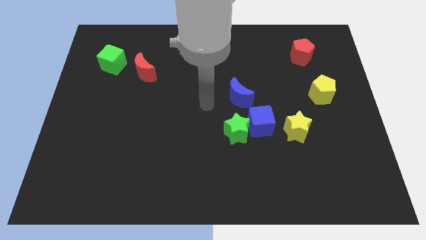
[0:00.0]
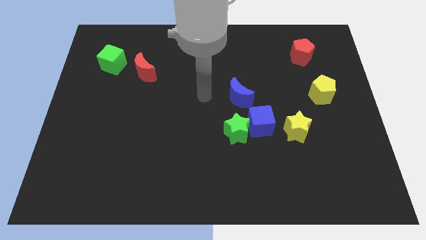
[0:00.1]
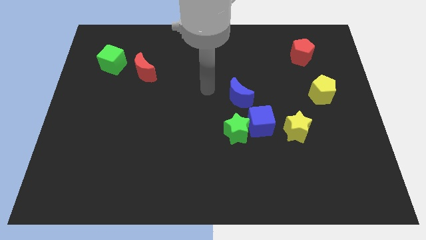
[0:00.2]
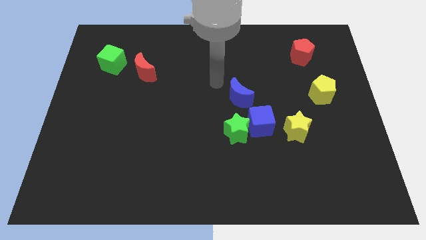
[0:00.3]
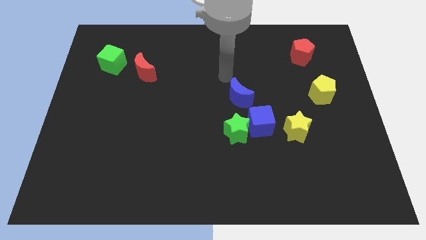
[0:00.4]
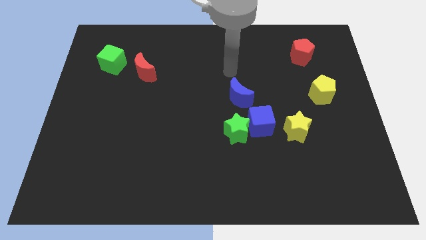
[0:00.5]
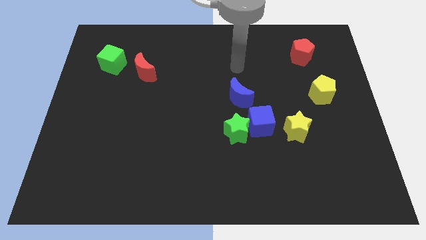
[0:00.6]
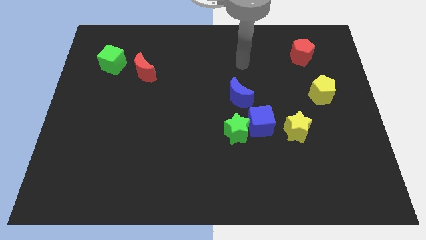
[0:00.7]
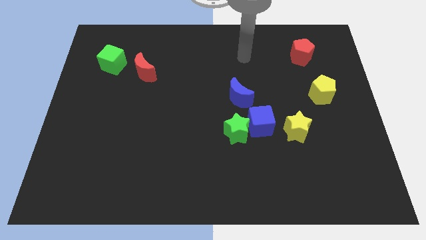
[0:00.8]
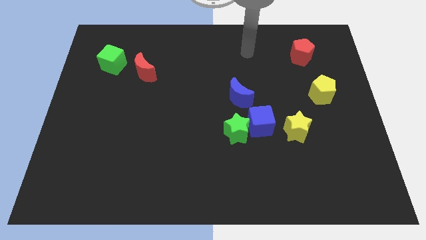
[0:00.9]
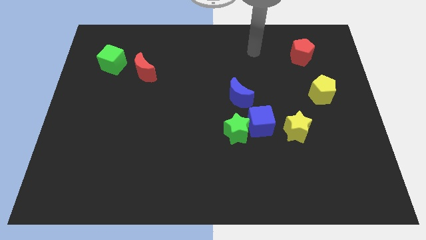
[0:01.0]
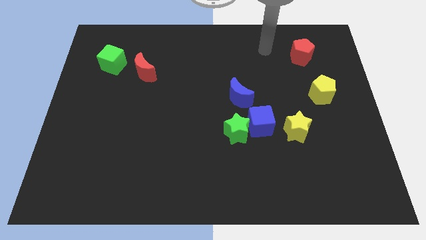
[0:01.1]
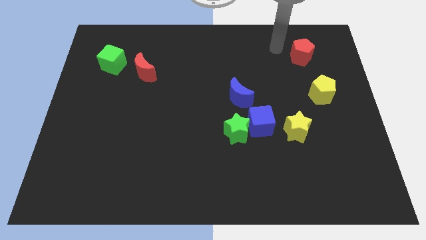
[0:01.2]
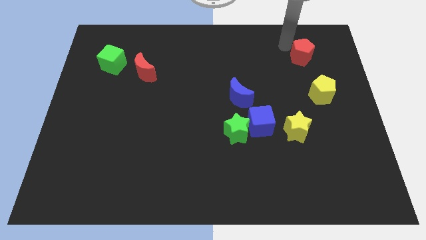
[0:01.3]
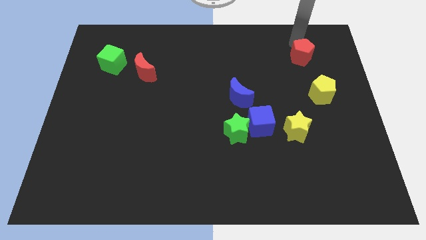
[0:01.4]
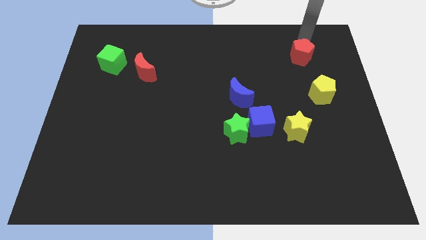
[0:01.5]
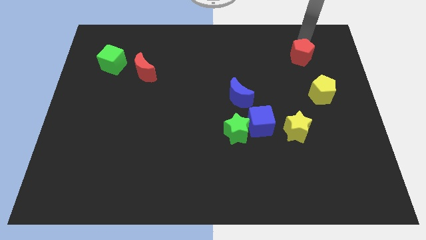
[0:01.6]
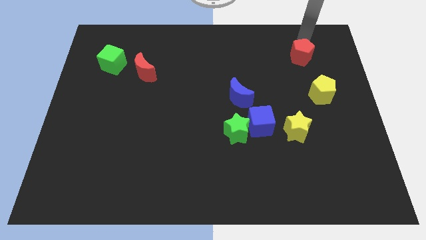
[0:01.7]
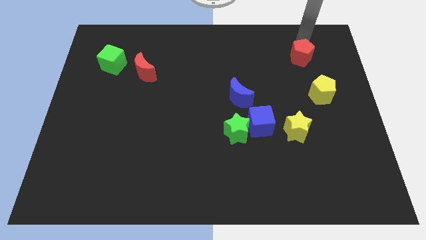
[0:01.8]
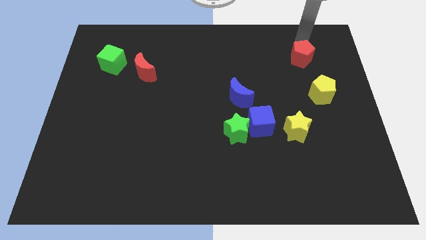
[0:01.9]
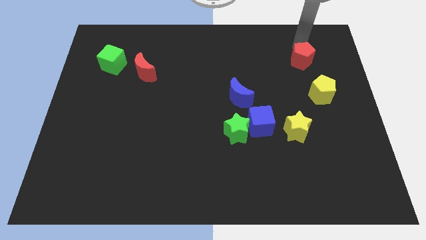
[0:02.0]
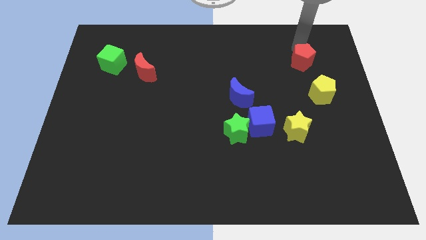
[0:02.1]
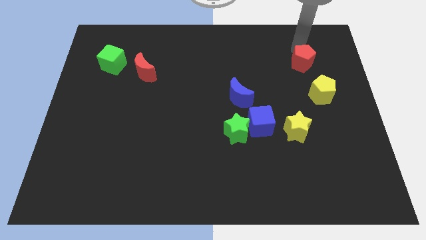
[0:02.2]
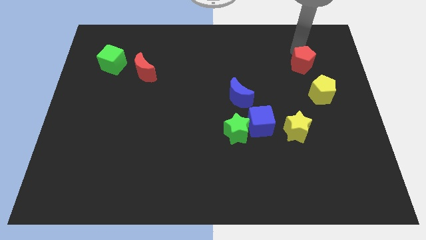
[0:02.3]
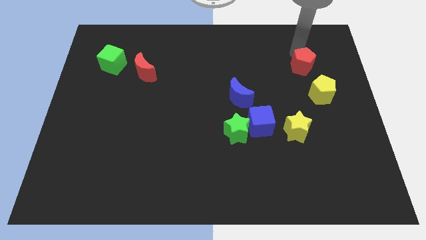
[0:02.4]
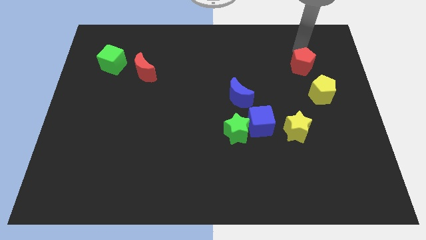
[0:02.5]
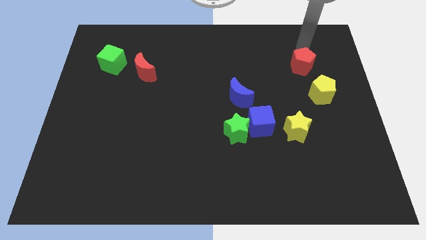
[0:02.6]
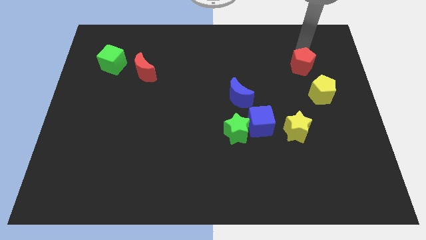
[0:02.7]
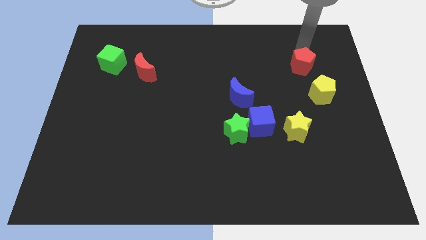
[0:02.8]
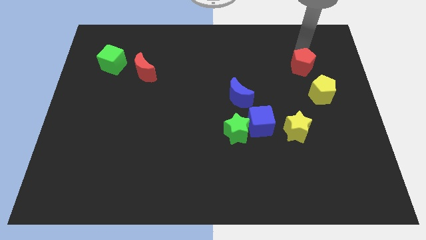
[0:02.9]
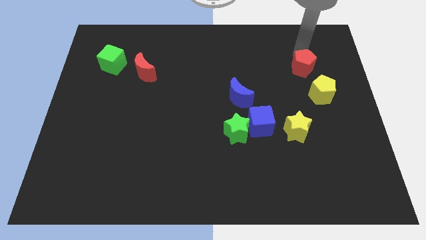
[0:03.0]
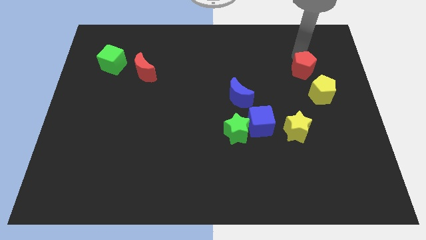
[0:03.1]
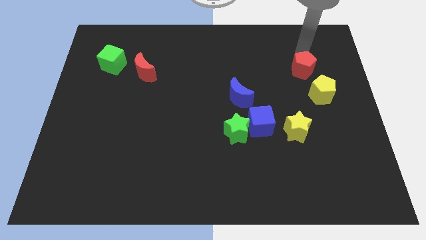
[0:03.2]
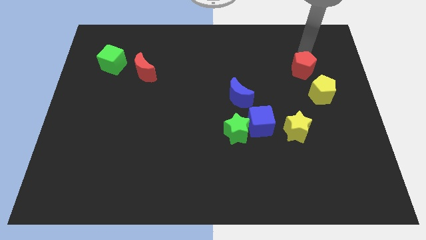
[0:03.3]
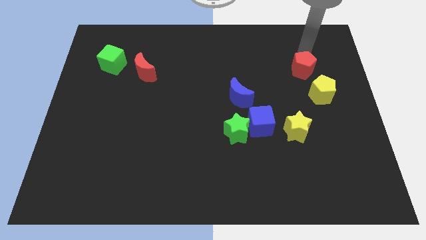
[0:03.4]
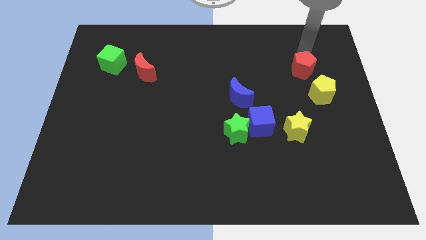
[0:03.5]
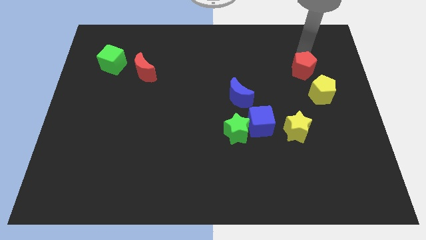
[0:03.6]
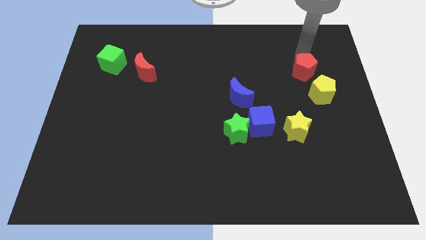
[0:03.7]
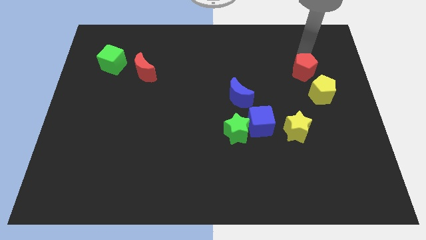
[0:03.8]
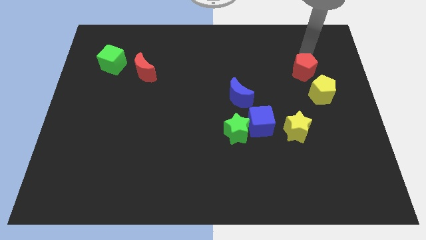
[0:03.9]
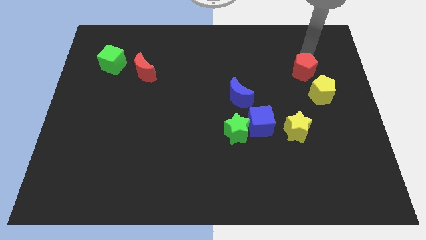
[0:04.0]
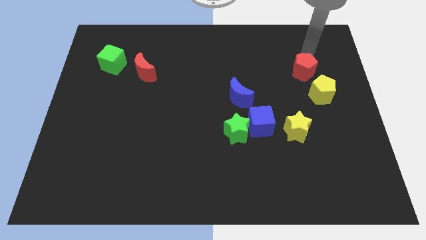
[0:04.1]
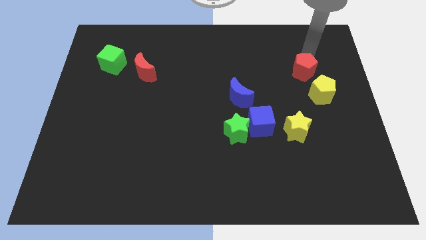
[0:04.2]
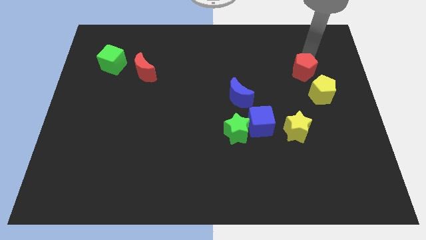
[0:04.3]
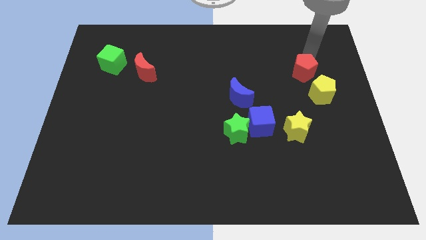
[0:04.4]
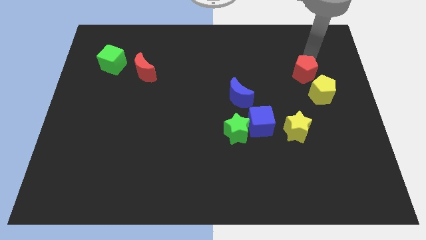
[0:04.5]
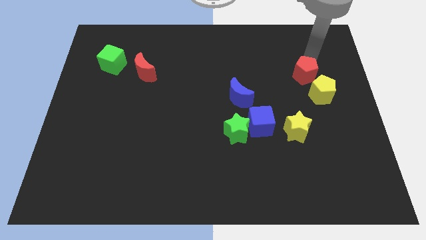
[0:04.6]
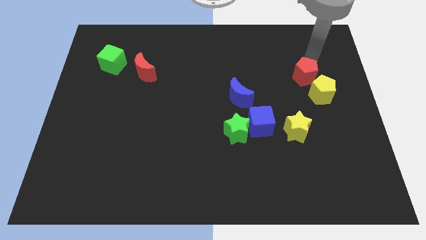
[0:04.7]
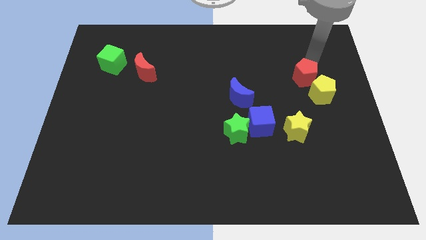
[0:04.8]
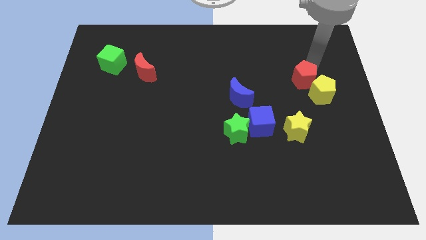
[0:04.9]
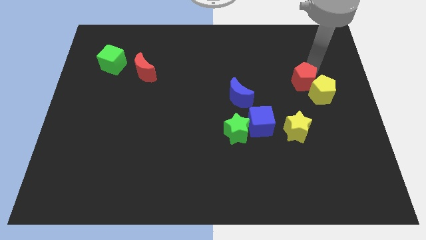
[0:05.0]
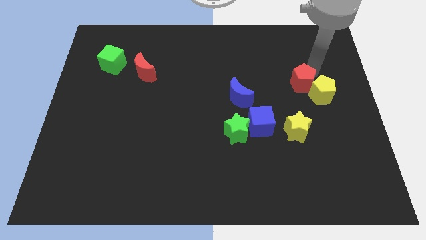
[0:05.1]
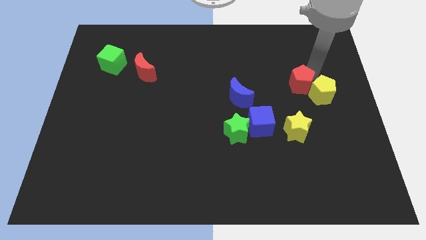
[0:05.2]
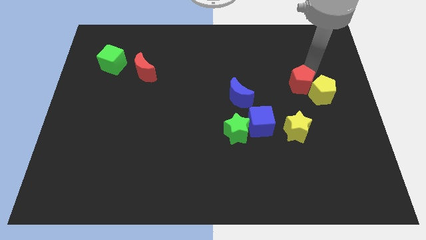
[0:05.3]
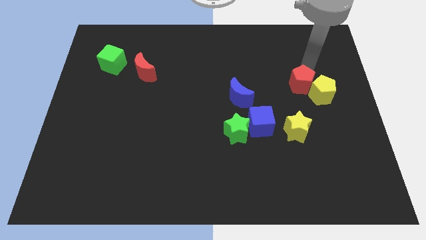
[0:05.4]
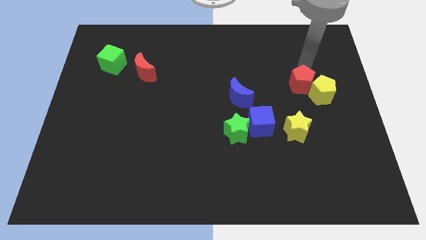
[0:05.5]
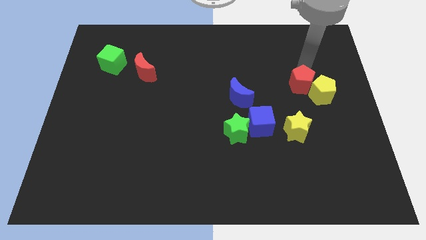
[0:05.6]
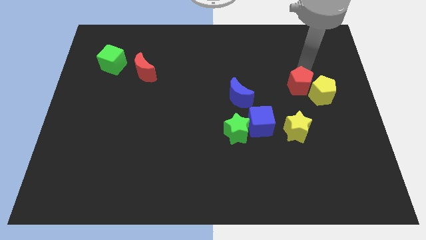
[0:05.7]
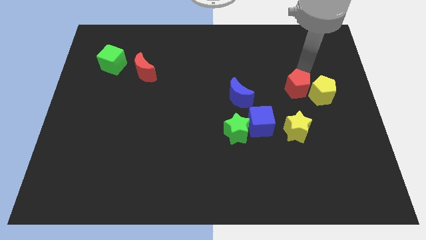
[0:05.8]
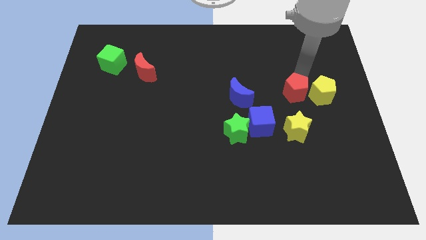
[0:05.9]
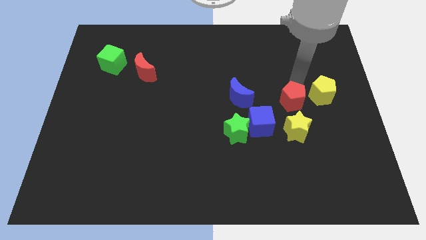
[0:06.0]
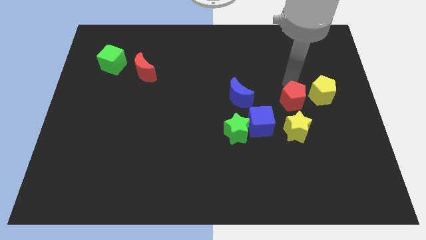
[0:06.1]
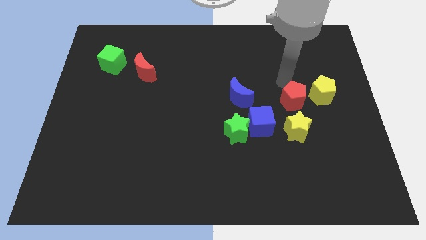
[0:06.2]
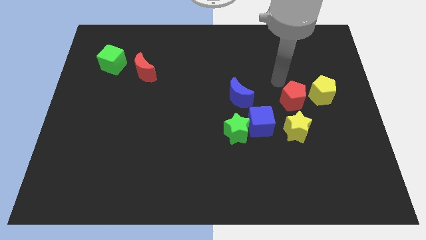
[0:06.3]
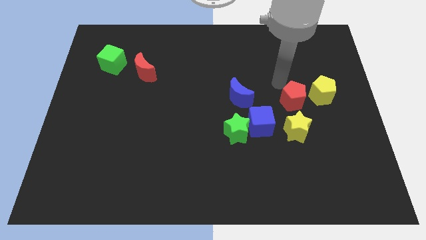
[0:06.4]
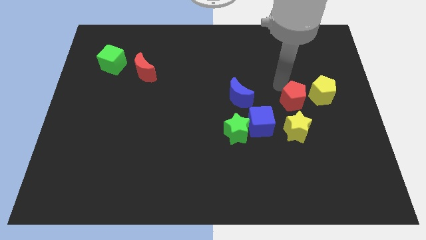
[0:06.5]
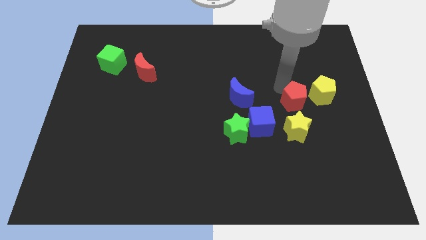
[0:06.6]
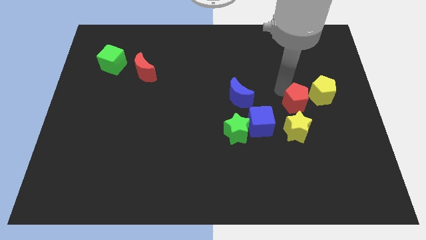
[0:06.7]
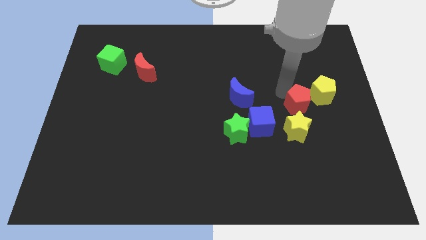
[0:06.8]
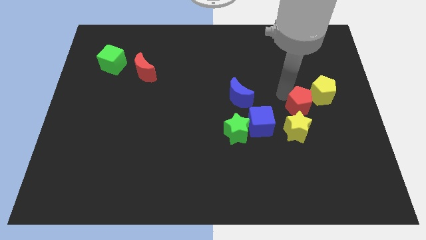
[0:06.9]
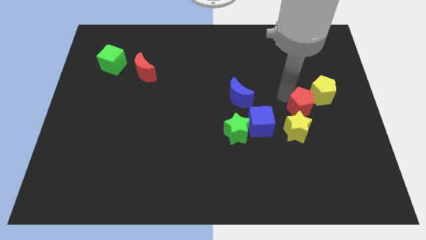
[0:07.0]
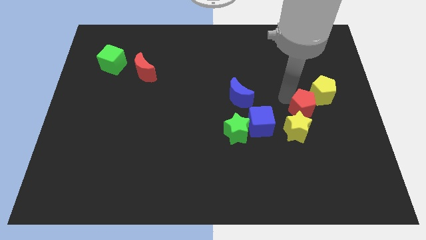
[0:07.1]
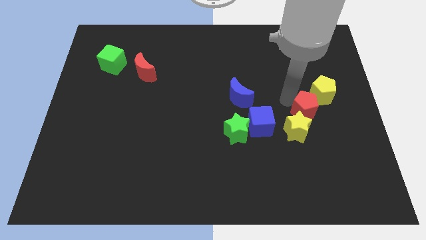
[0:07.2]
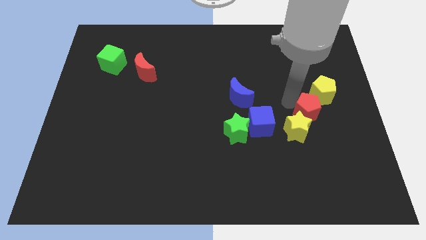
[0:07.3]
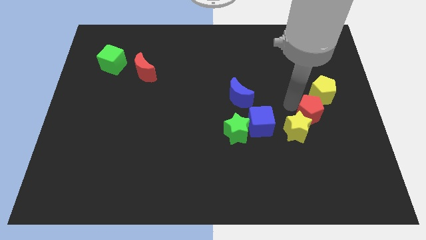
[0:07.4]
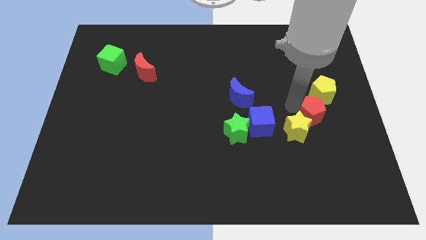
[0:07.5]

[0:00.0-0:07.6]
slide the red pentagon downwards
